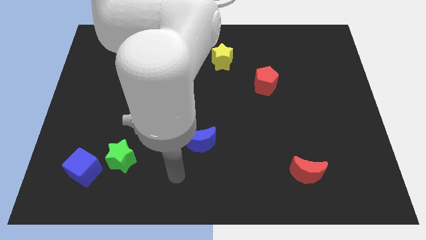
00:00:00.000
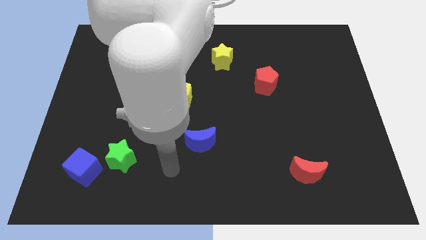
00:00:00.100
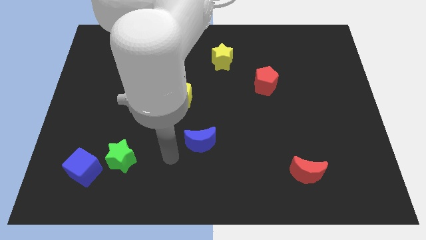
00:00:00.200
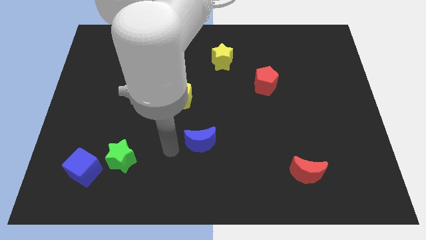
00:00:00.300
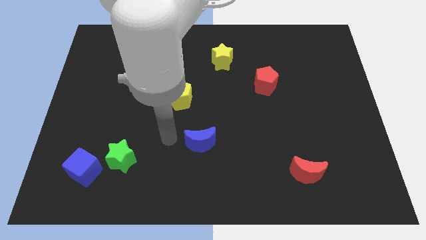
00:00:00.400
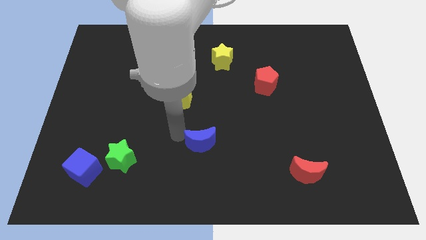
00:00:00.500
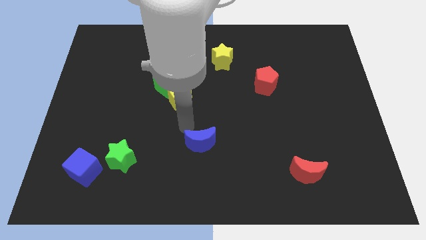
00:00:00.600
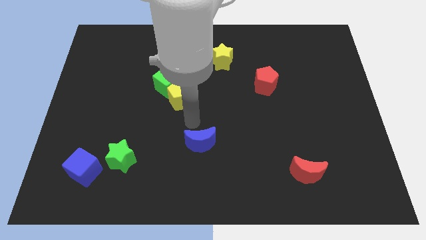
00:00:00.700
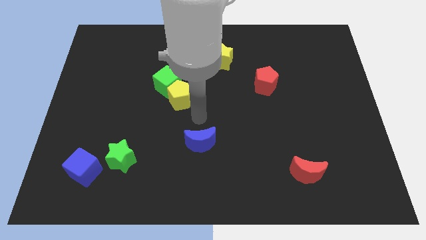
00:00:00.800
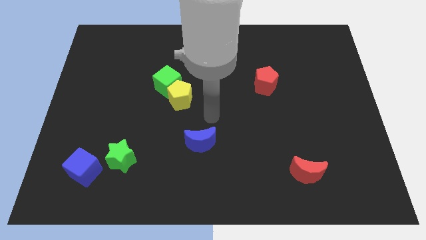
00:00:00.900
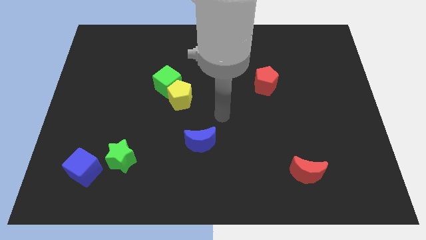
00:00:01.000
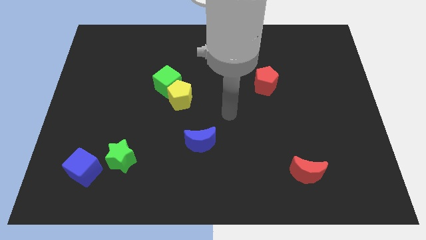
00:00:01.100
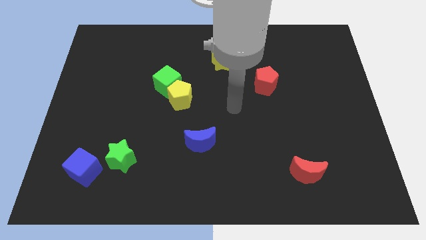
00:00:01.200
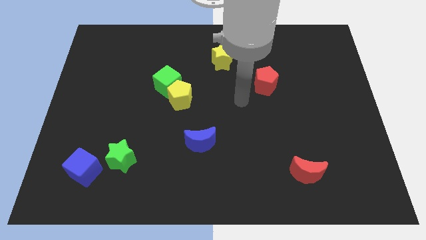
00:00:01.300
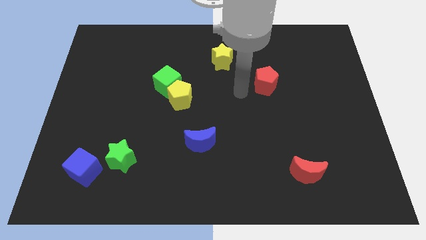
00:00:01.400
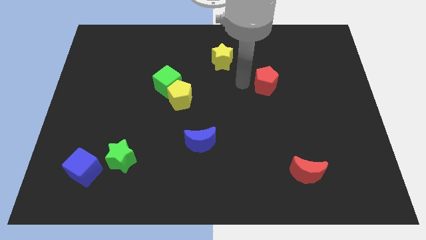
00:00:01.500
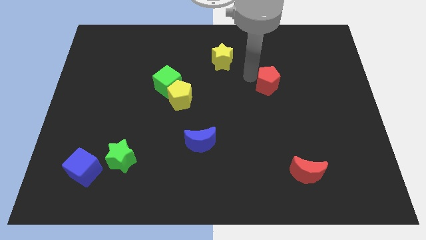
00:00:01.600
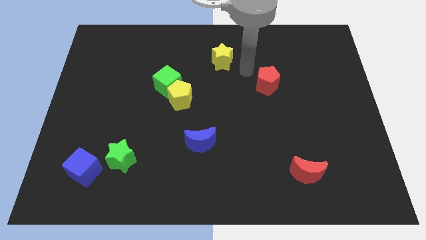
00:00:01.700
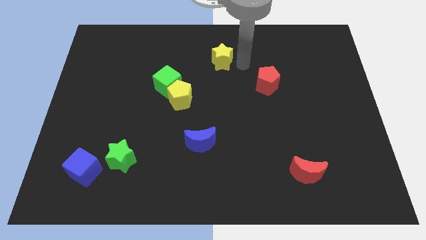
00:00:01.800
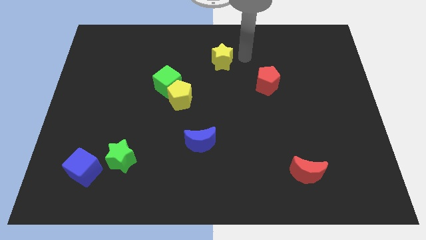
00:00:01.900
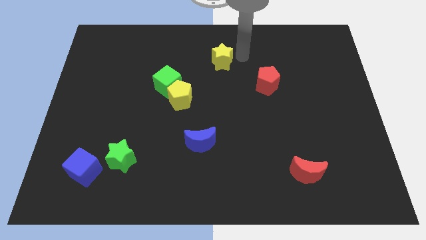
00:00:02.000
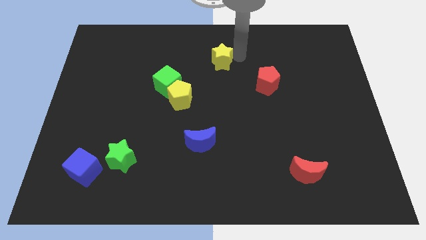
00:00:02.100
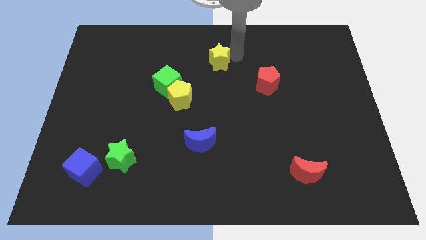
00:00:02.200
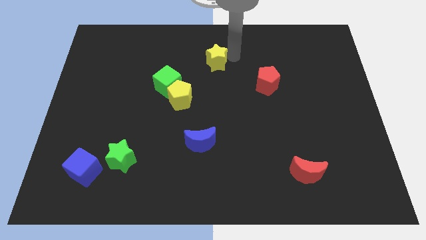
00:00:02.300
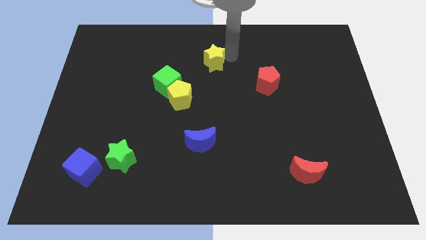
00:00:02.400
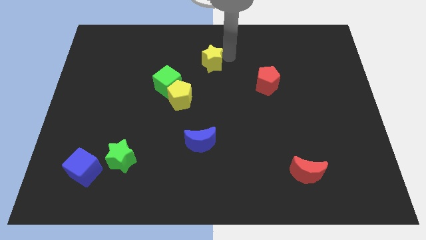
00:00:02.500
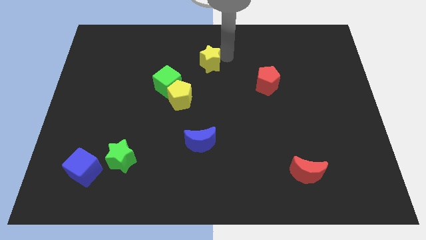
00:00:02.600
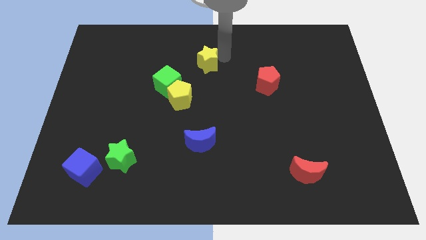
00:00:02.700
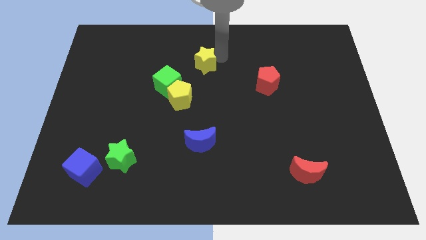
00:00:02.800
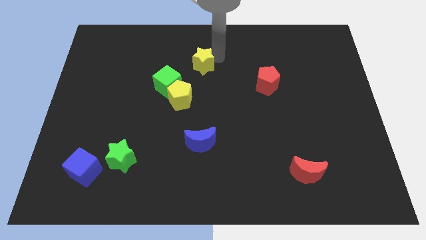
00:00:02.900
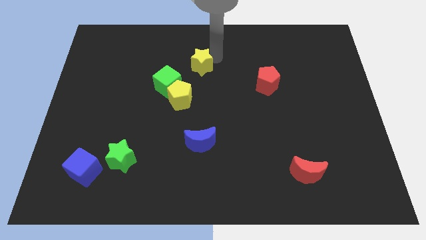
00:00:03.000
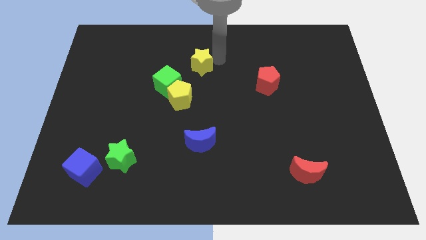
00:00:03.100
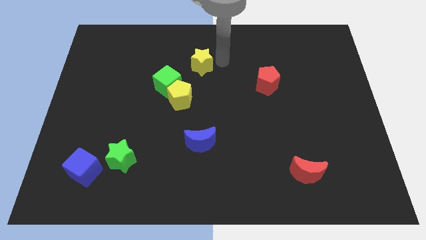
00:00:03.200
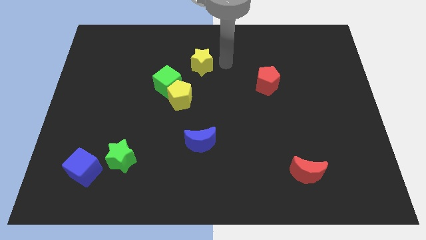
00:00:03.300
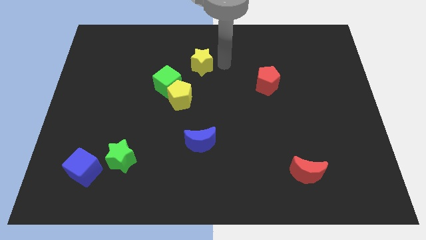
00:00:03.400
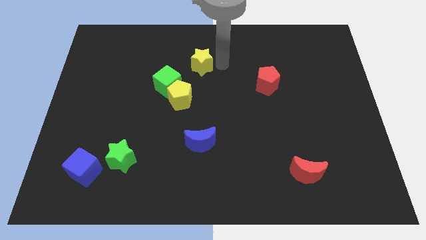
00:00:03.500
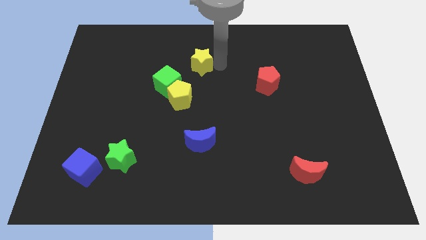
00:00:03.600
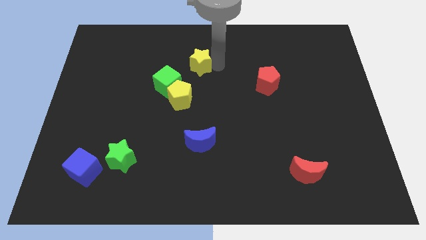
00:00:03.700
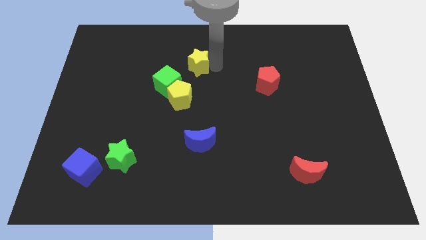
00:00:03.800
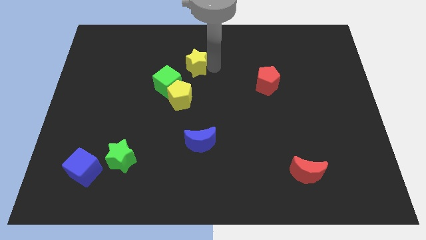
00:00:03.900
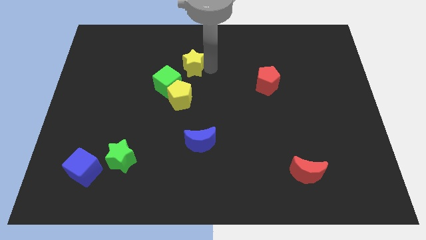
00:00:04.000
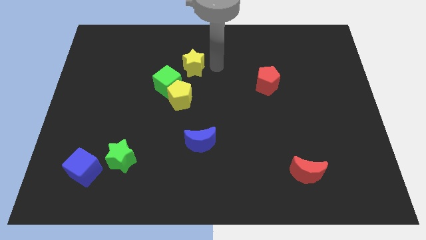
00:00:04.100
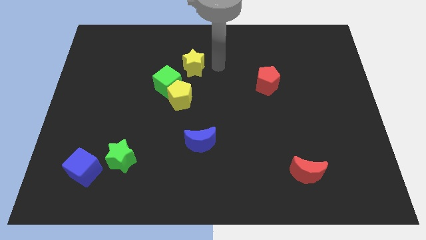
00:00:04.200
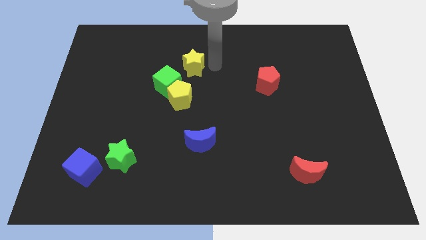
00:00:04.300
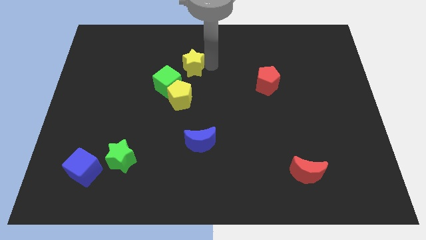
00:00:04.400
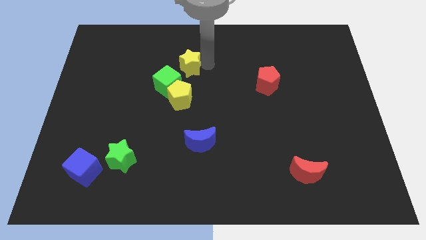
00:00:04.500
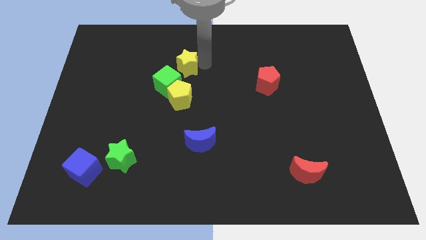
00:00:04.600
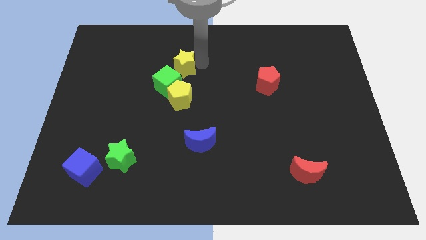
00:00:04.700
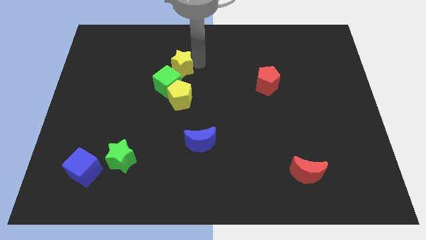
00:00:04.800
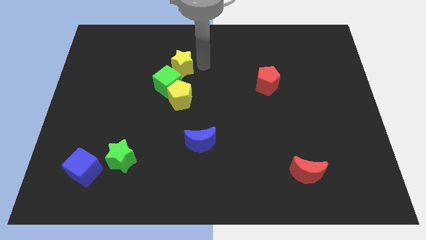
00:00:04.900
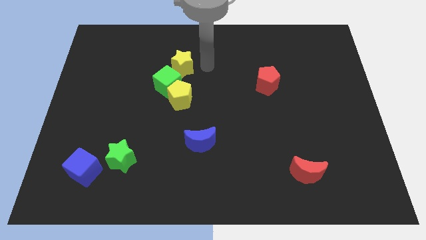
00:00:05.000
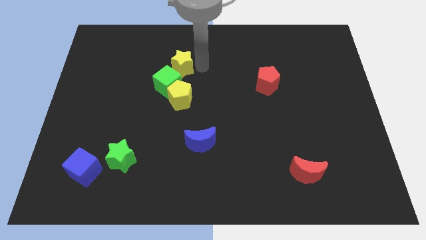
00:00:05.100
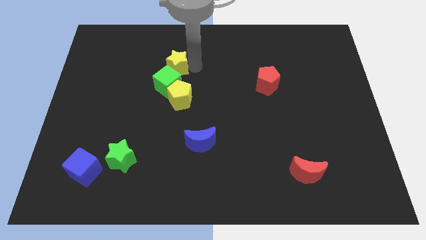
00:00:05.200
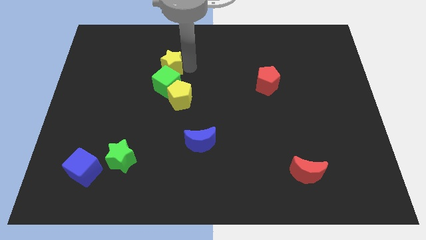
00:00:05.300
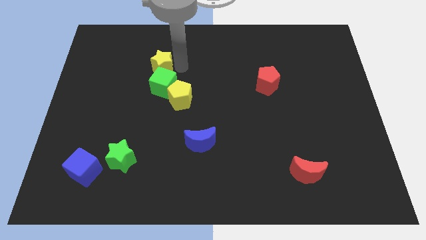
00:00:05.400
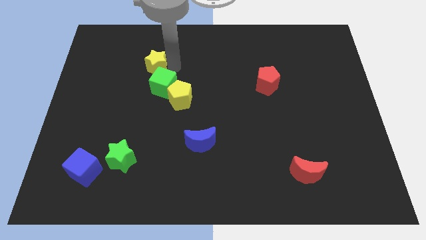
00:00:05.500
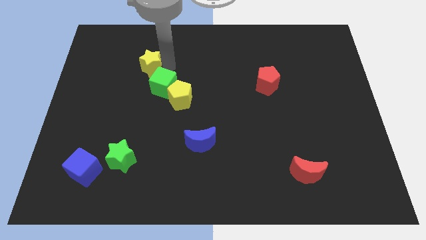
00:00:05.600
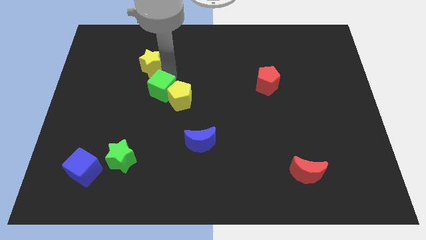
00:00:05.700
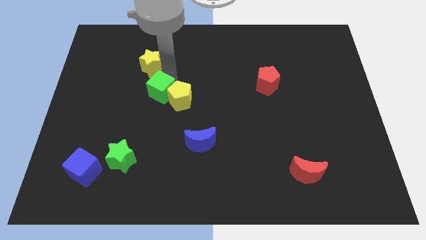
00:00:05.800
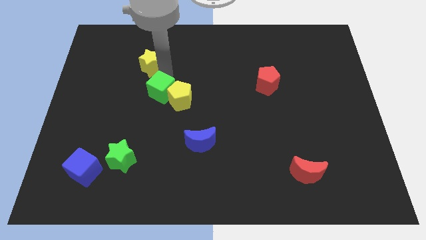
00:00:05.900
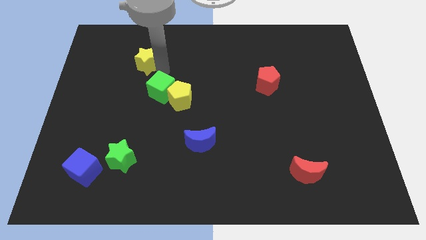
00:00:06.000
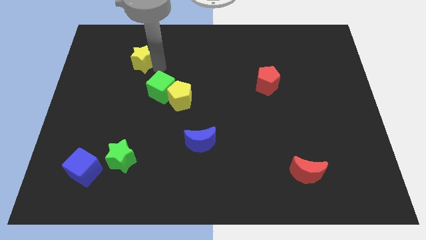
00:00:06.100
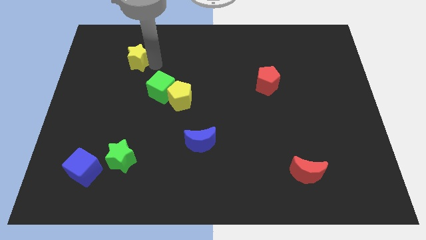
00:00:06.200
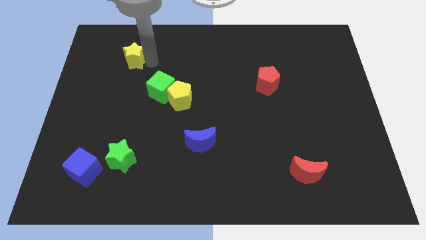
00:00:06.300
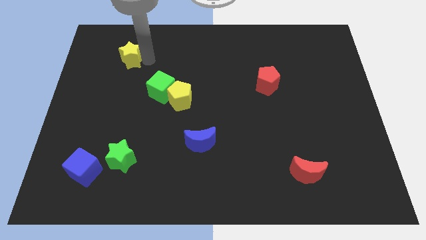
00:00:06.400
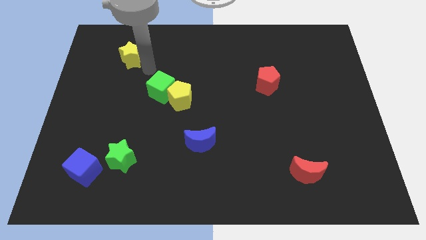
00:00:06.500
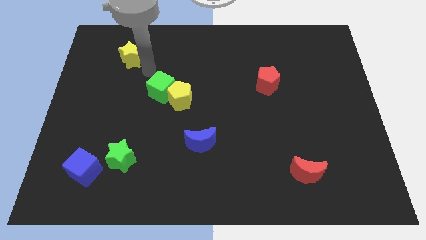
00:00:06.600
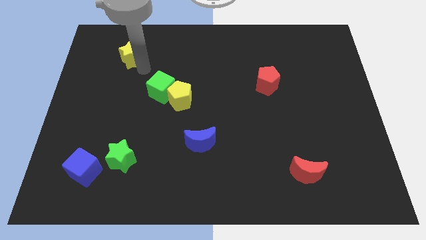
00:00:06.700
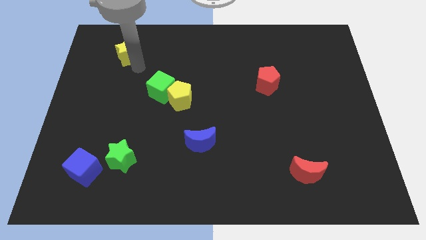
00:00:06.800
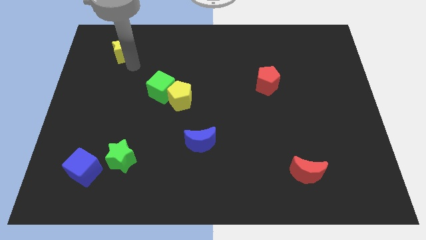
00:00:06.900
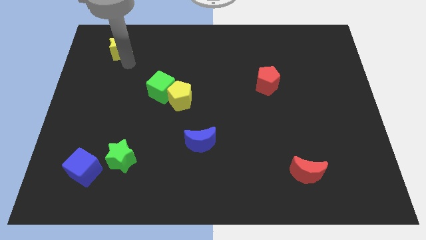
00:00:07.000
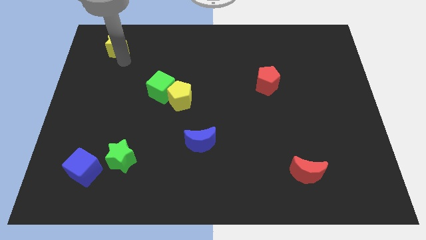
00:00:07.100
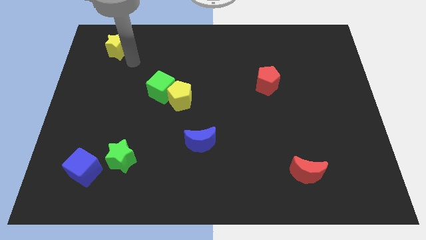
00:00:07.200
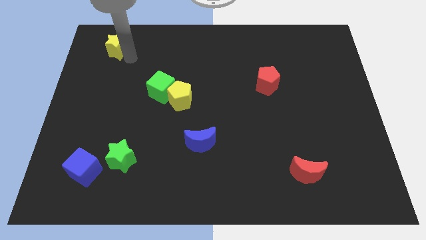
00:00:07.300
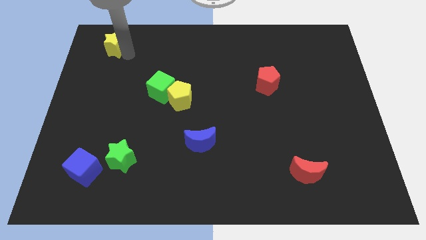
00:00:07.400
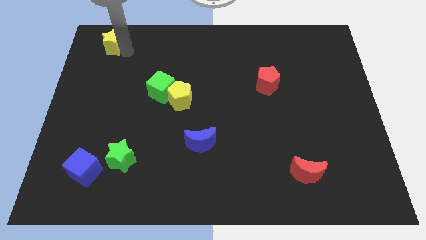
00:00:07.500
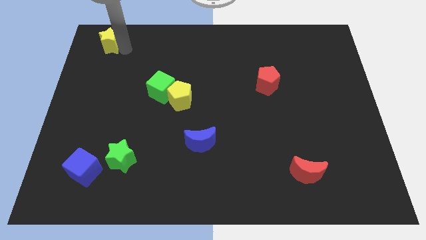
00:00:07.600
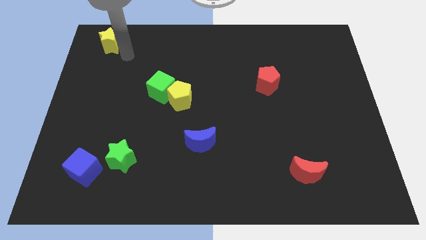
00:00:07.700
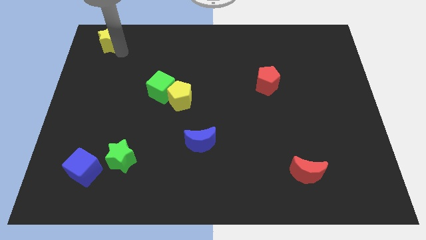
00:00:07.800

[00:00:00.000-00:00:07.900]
slide the yellow star to the upper left corner
